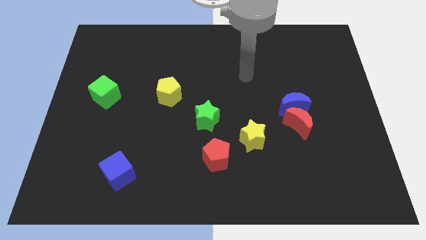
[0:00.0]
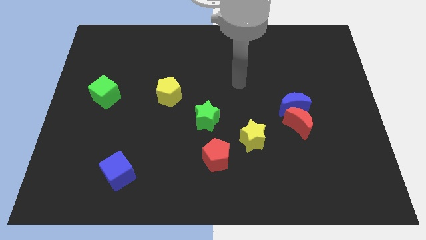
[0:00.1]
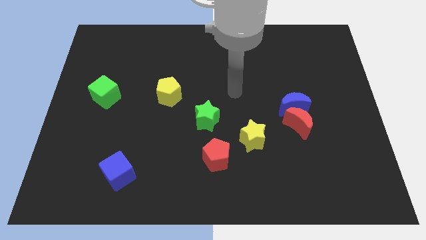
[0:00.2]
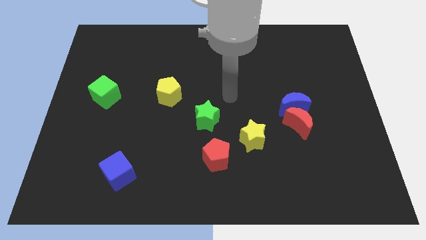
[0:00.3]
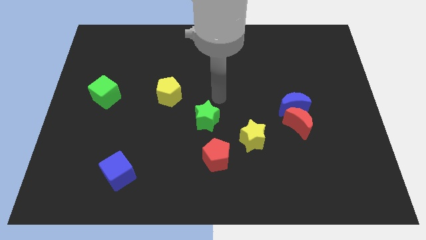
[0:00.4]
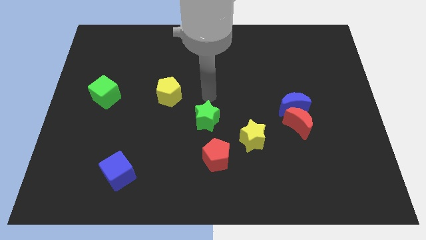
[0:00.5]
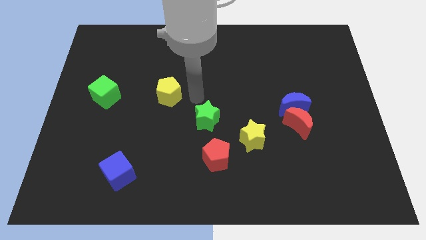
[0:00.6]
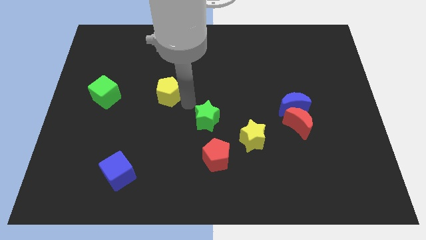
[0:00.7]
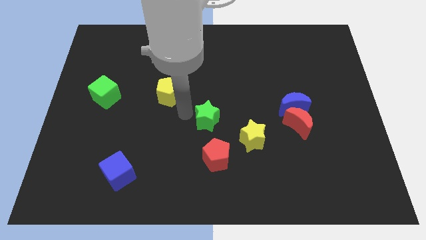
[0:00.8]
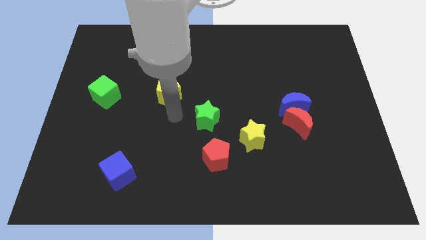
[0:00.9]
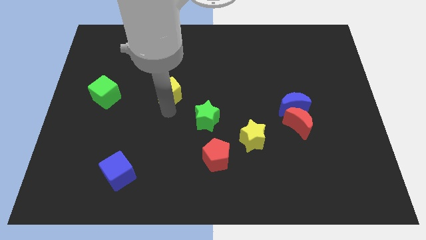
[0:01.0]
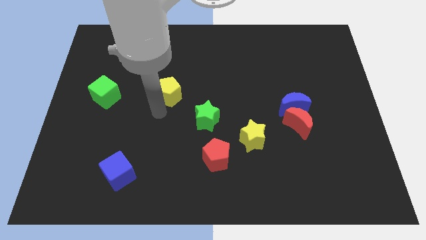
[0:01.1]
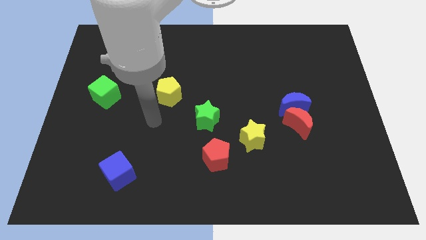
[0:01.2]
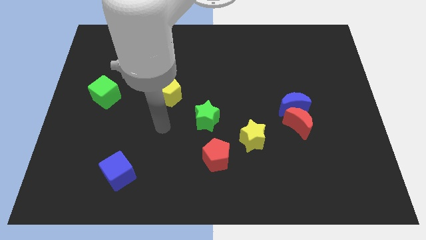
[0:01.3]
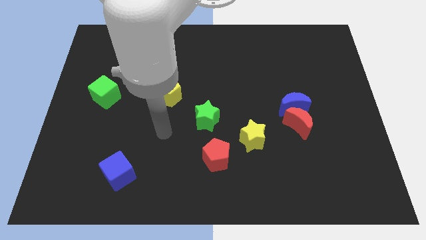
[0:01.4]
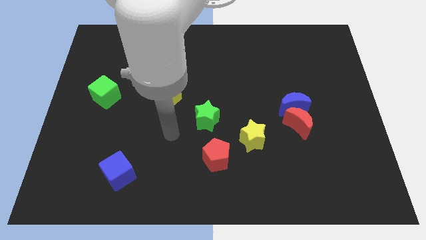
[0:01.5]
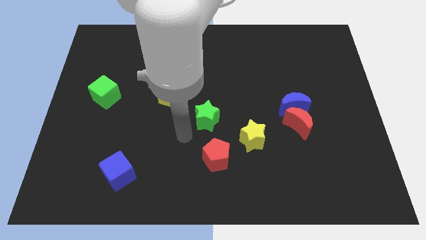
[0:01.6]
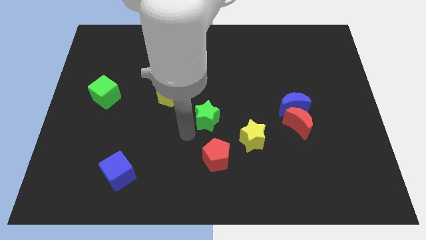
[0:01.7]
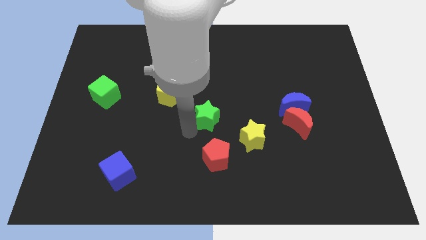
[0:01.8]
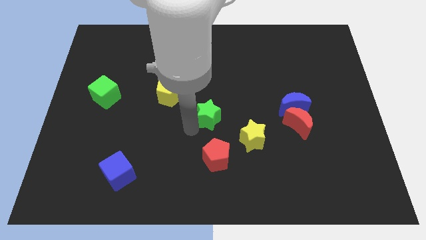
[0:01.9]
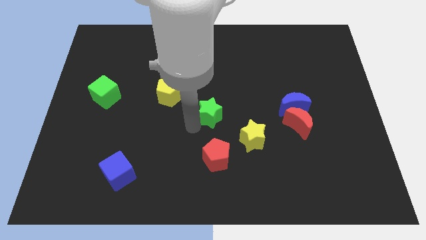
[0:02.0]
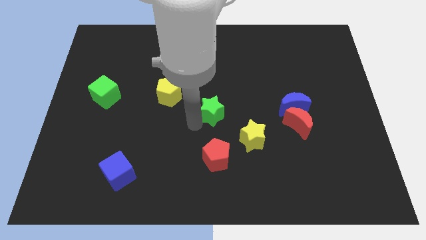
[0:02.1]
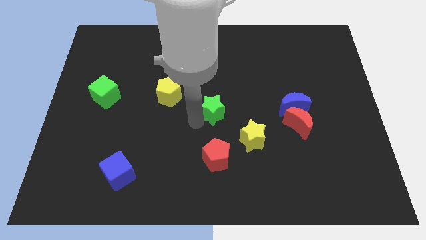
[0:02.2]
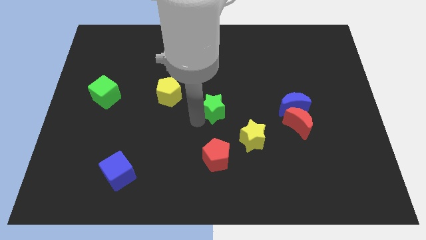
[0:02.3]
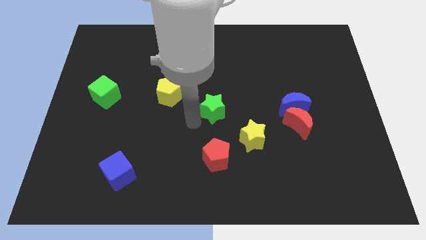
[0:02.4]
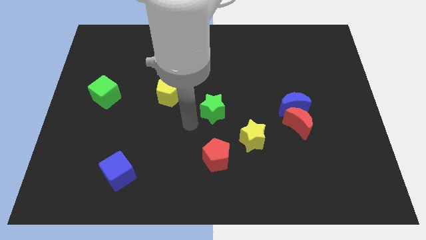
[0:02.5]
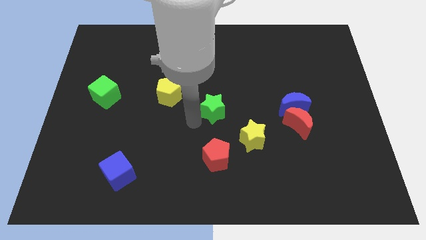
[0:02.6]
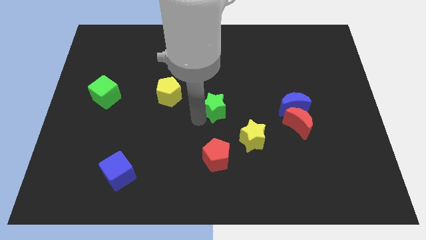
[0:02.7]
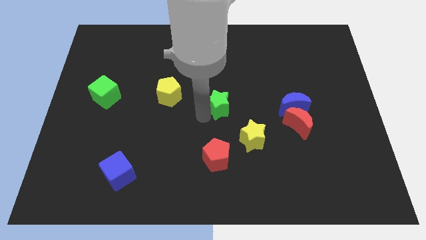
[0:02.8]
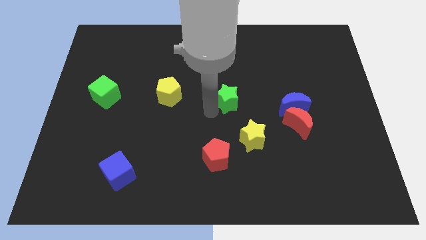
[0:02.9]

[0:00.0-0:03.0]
slightly move the green star upwards and to the right

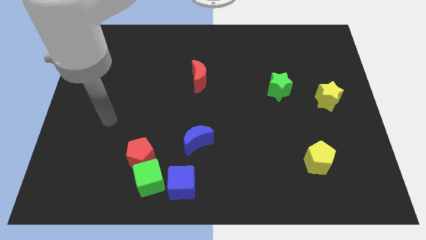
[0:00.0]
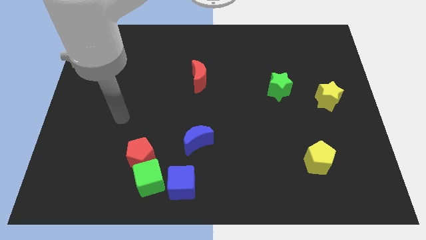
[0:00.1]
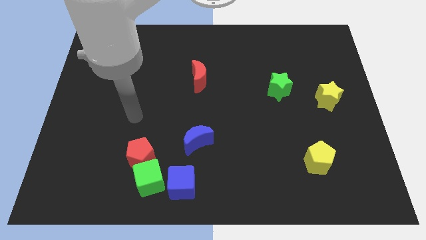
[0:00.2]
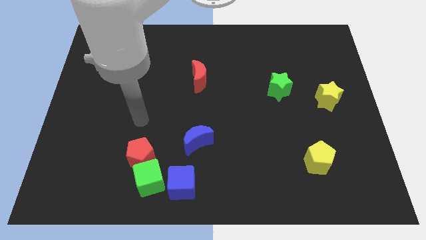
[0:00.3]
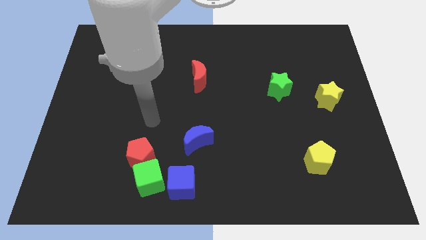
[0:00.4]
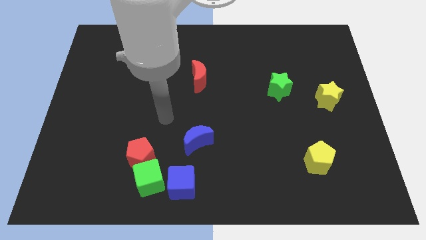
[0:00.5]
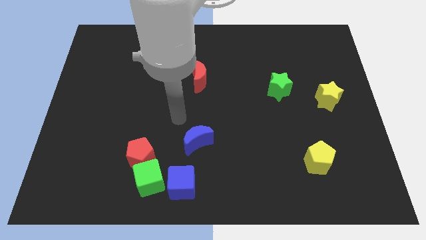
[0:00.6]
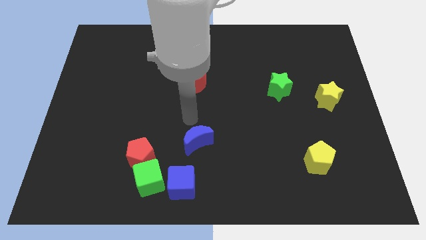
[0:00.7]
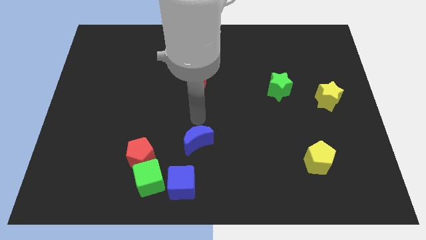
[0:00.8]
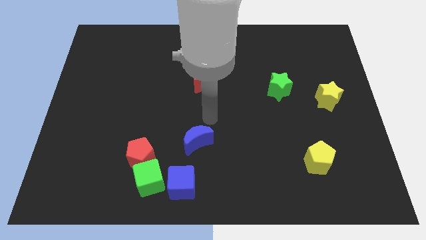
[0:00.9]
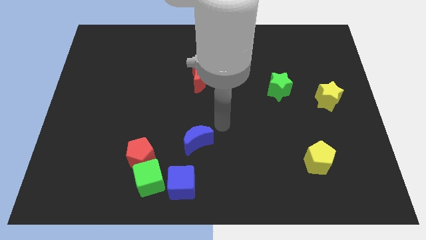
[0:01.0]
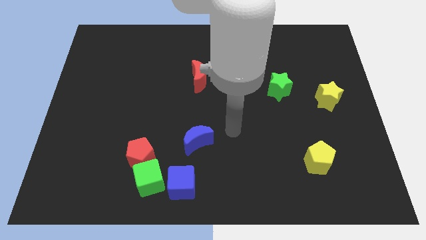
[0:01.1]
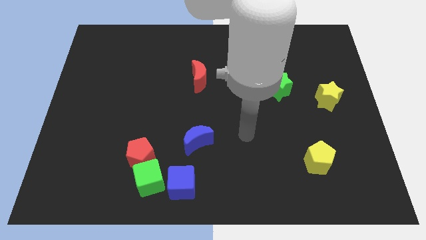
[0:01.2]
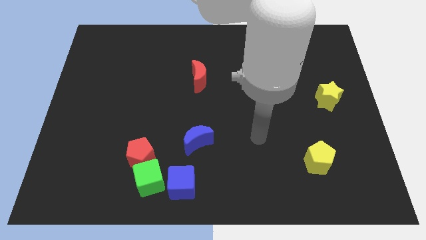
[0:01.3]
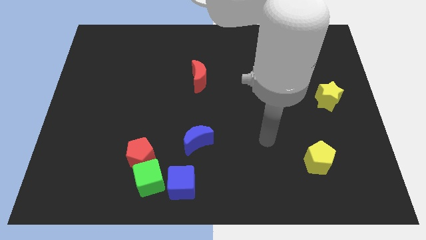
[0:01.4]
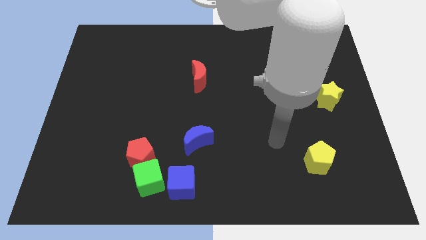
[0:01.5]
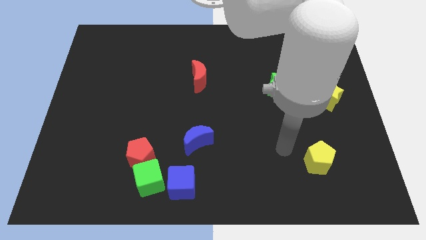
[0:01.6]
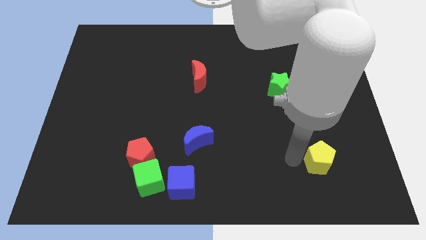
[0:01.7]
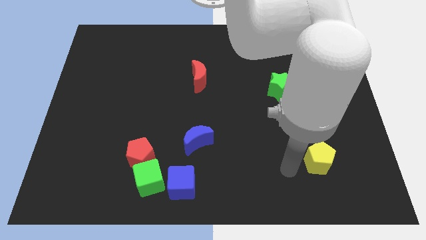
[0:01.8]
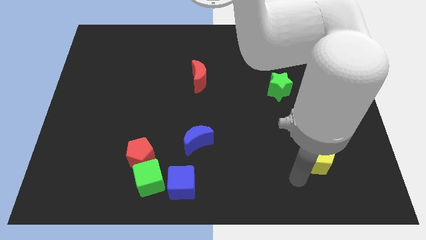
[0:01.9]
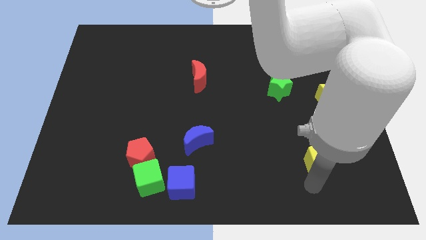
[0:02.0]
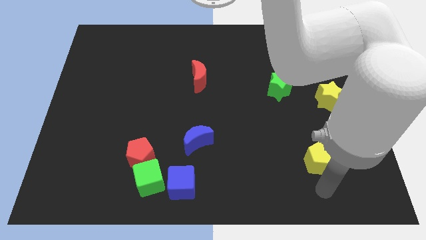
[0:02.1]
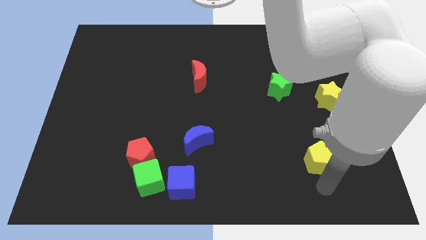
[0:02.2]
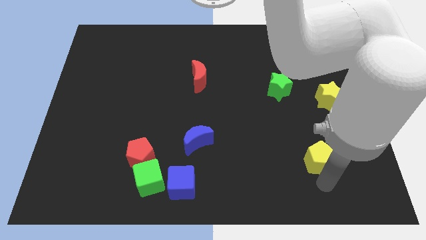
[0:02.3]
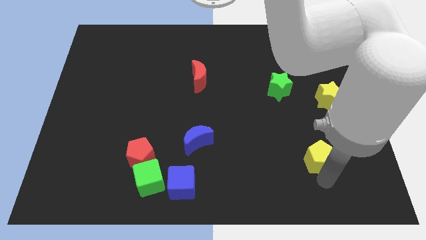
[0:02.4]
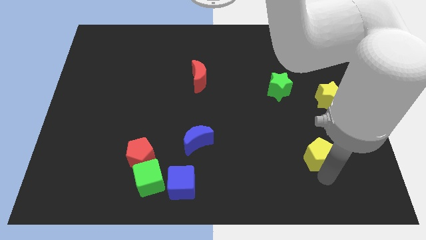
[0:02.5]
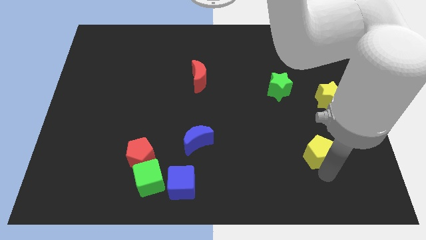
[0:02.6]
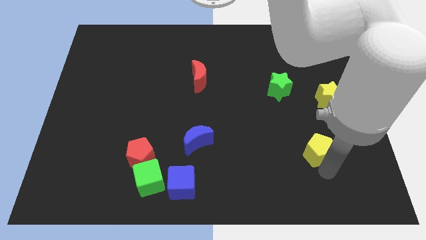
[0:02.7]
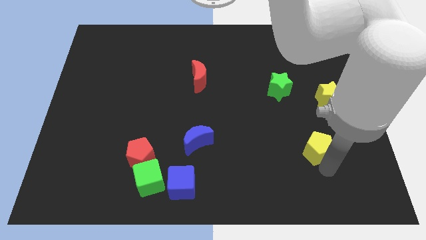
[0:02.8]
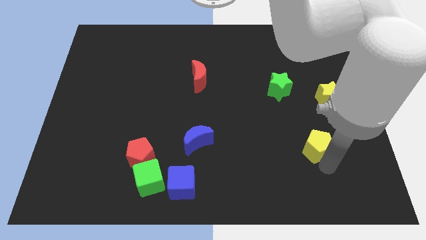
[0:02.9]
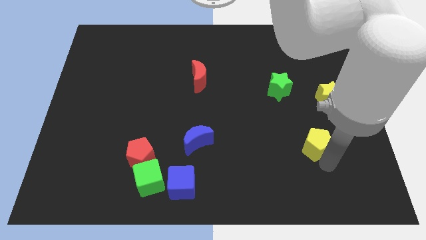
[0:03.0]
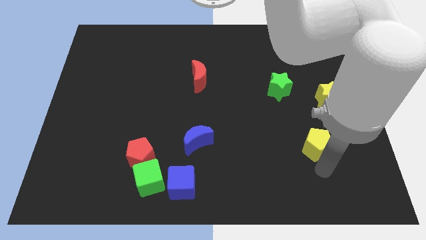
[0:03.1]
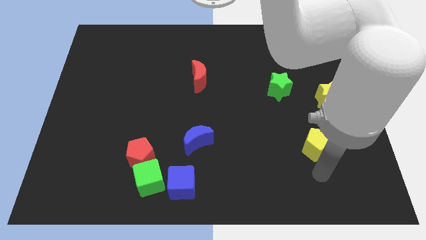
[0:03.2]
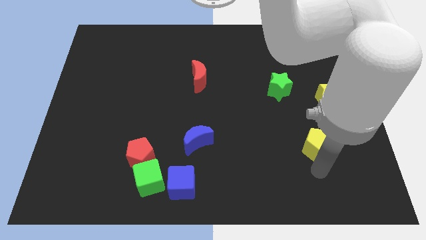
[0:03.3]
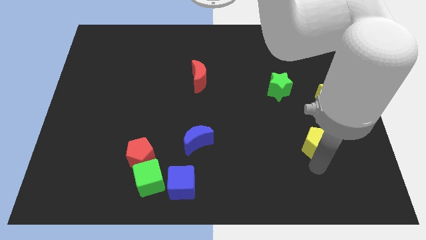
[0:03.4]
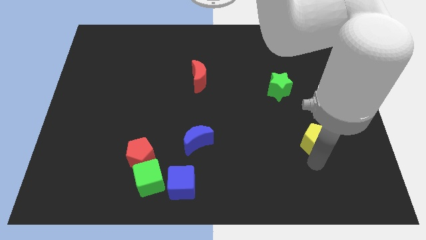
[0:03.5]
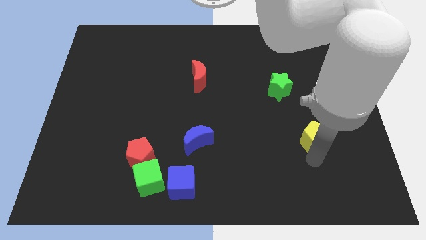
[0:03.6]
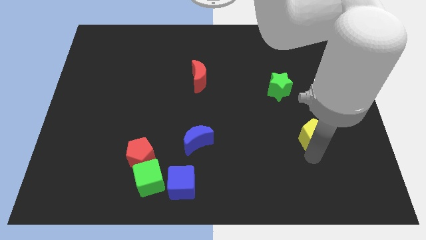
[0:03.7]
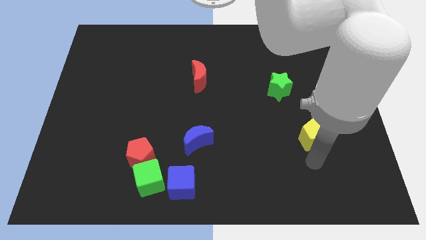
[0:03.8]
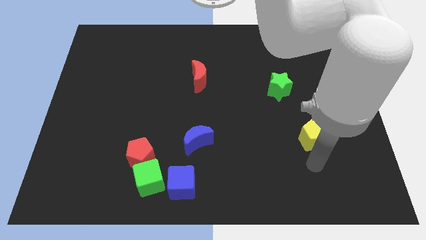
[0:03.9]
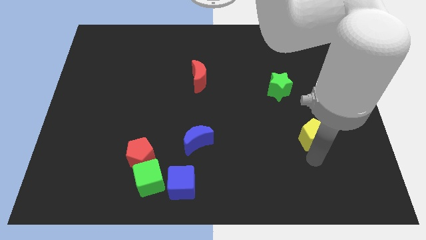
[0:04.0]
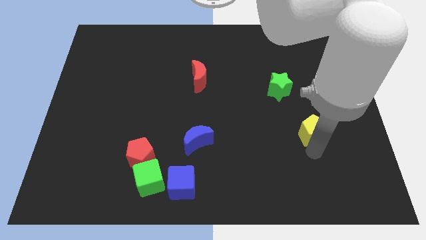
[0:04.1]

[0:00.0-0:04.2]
move the yellow pentagon up a little bit

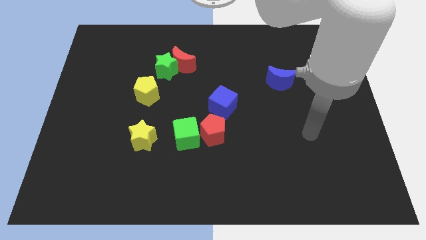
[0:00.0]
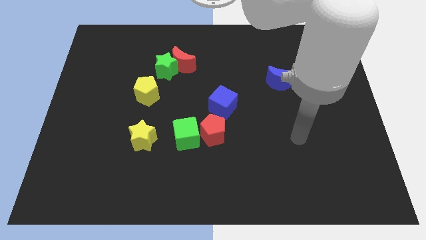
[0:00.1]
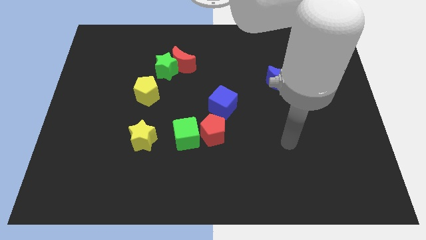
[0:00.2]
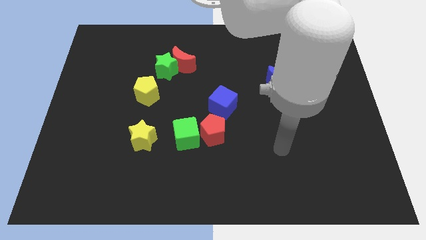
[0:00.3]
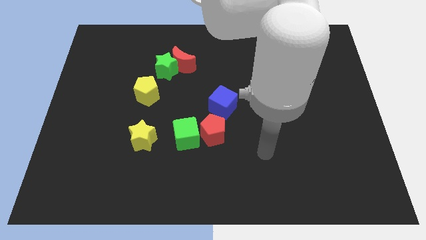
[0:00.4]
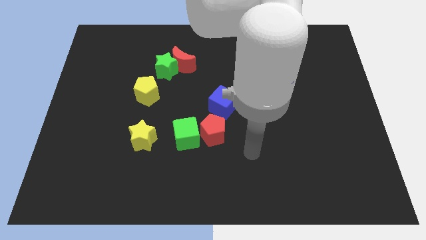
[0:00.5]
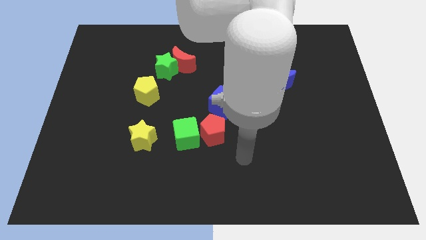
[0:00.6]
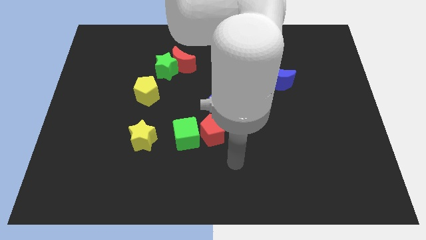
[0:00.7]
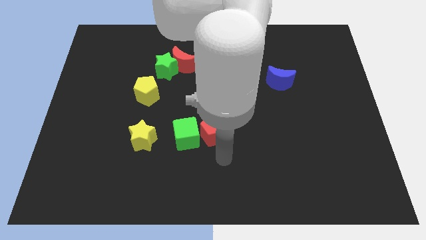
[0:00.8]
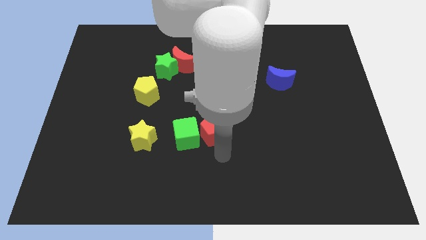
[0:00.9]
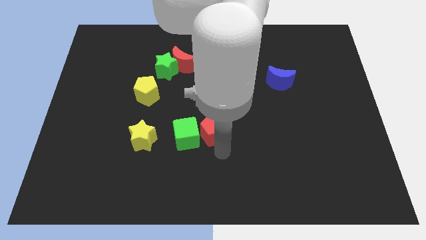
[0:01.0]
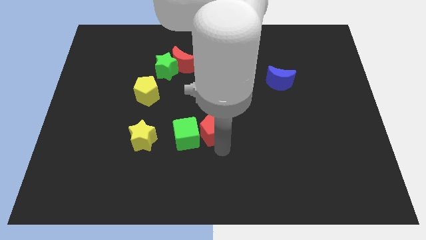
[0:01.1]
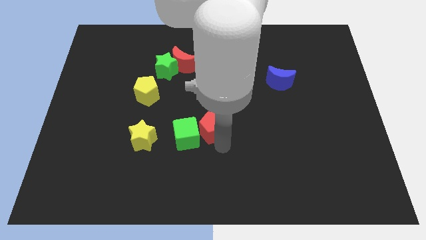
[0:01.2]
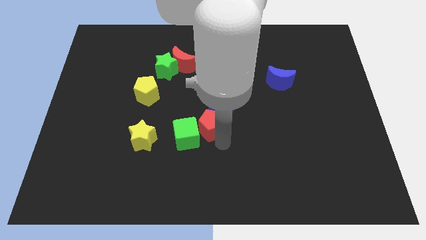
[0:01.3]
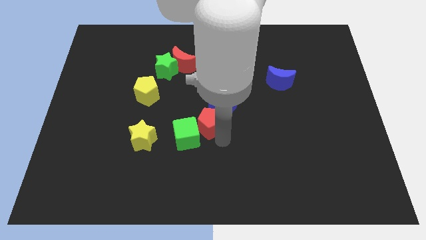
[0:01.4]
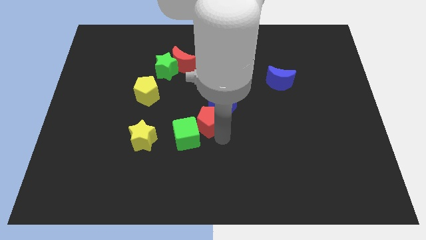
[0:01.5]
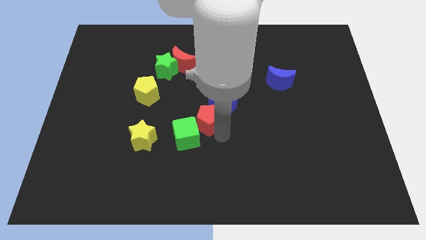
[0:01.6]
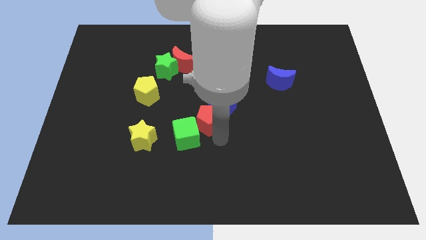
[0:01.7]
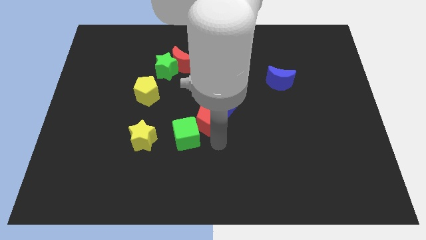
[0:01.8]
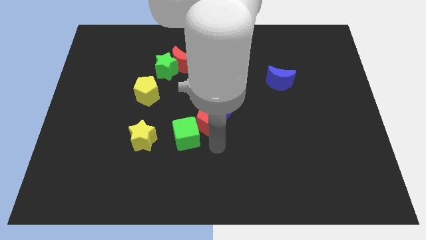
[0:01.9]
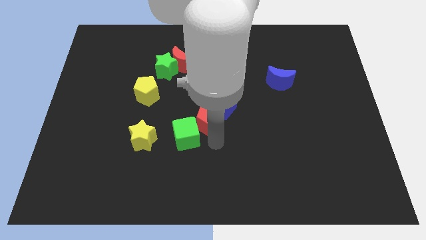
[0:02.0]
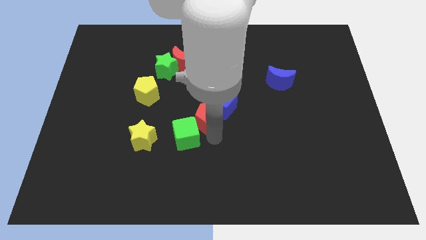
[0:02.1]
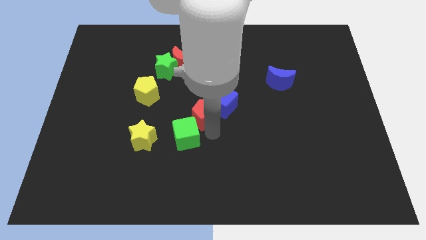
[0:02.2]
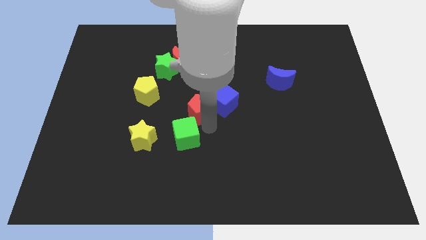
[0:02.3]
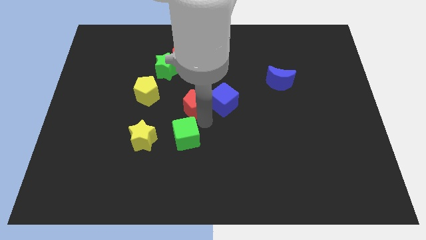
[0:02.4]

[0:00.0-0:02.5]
slightly slide the red pentagon up
